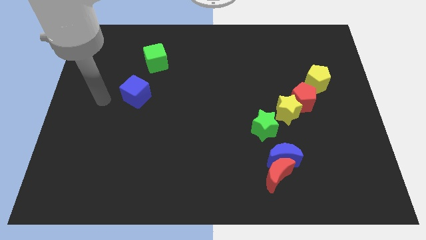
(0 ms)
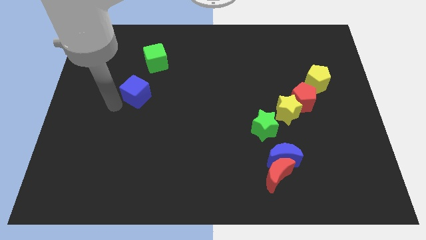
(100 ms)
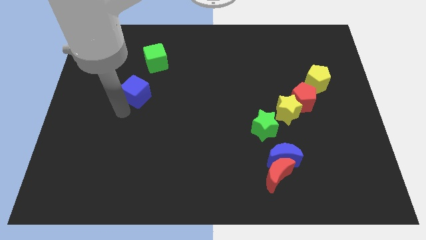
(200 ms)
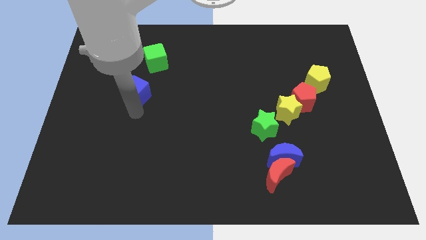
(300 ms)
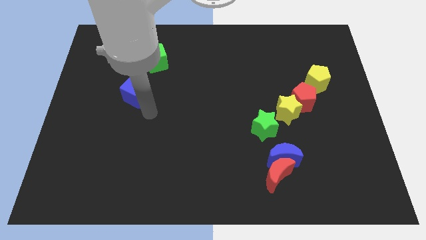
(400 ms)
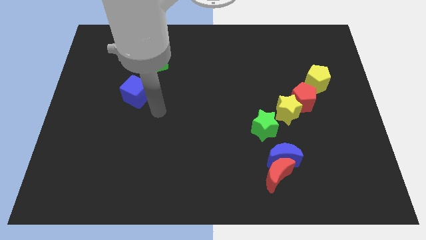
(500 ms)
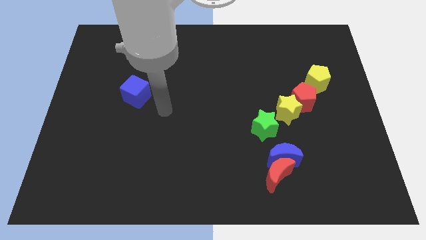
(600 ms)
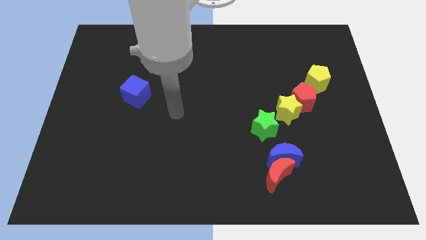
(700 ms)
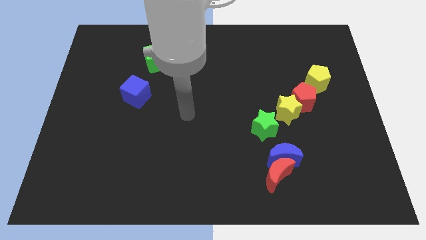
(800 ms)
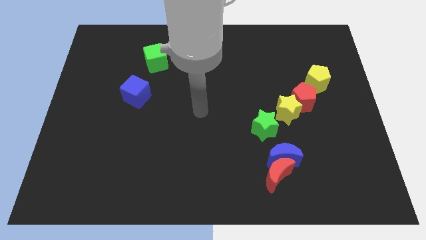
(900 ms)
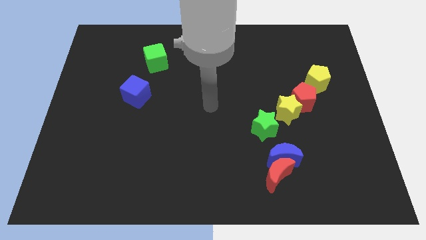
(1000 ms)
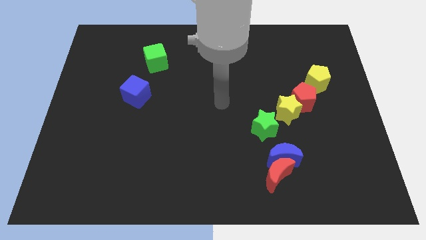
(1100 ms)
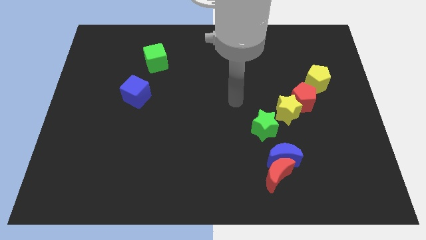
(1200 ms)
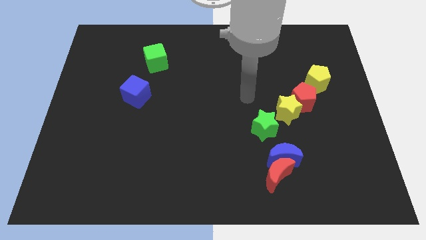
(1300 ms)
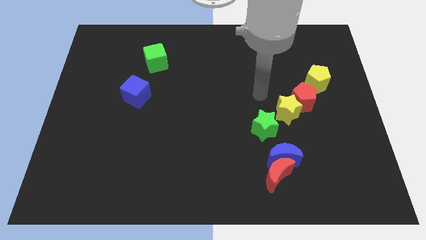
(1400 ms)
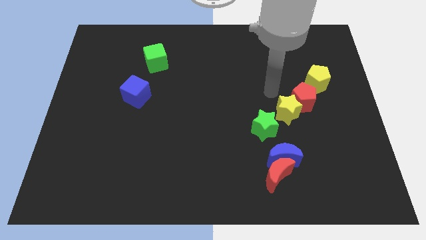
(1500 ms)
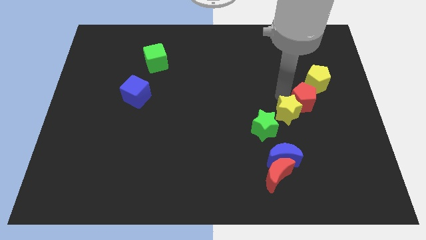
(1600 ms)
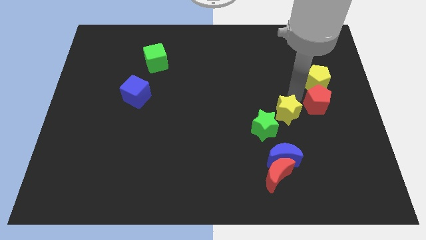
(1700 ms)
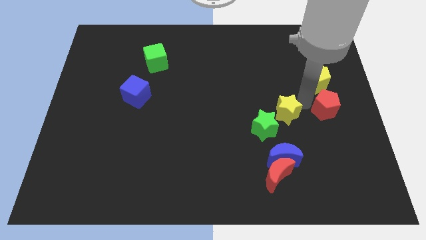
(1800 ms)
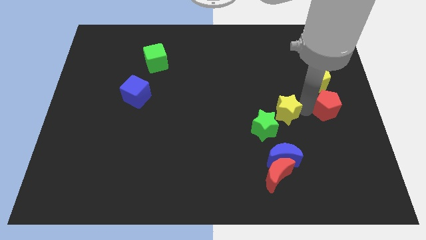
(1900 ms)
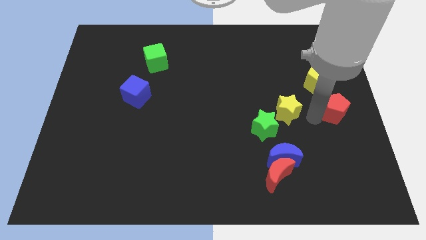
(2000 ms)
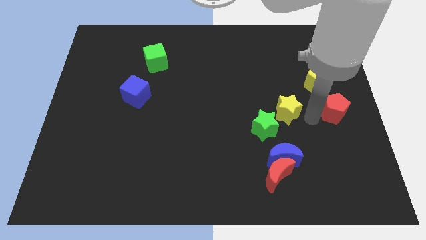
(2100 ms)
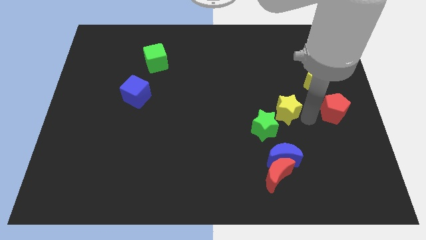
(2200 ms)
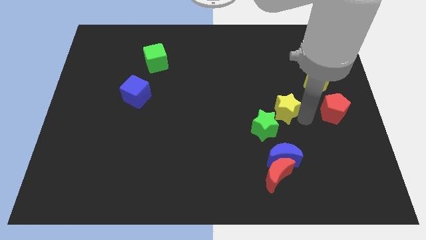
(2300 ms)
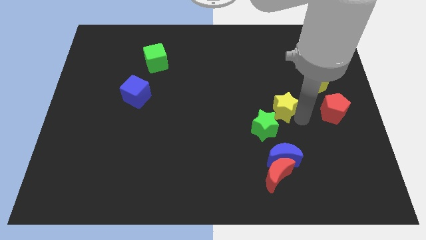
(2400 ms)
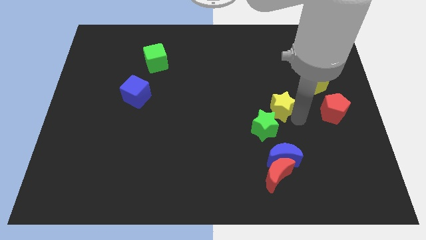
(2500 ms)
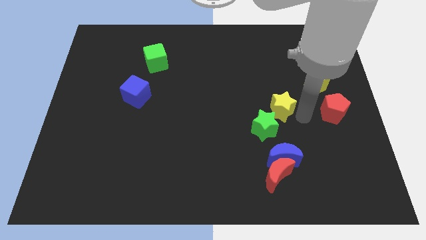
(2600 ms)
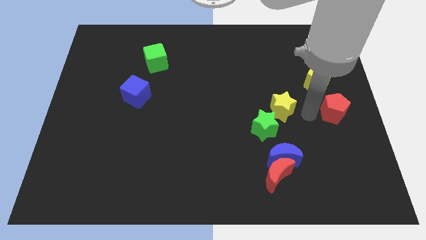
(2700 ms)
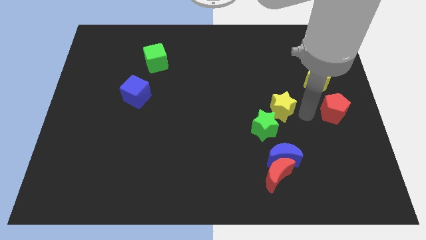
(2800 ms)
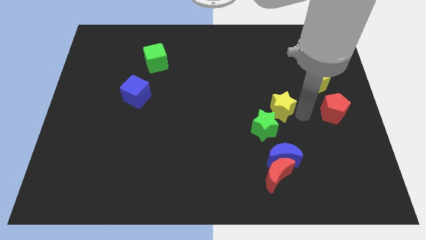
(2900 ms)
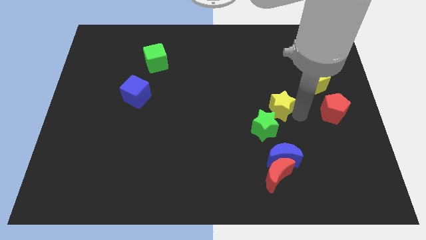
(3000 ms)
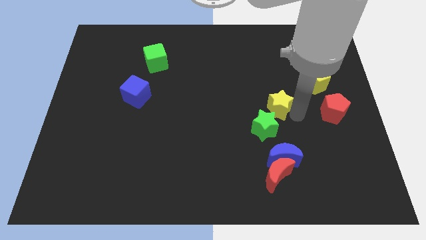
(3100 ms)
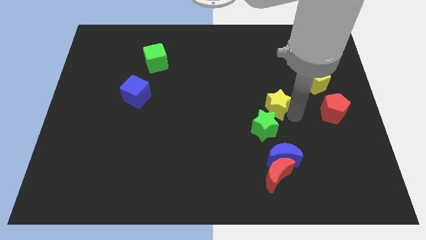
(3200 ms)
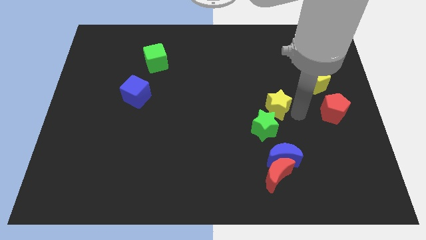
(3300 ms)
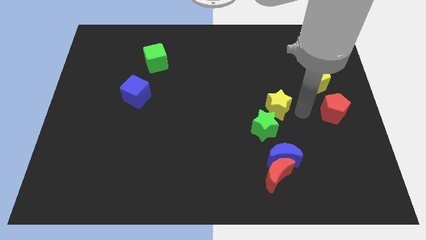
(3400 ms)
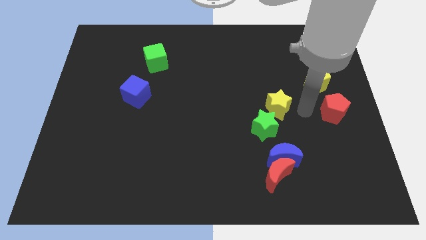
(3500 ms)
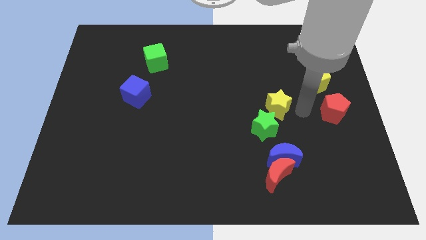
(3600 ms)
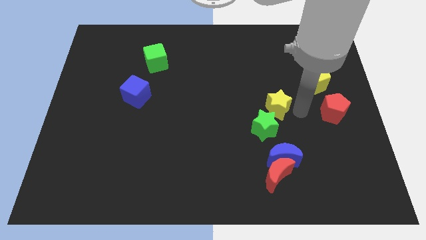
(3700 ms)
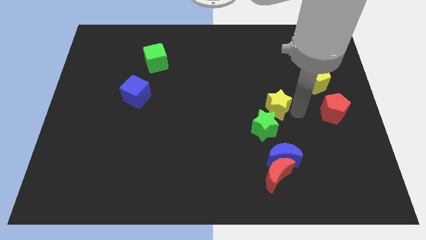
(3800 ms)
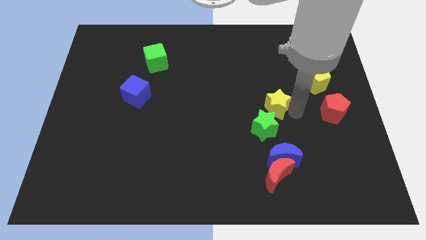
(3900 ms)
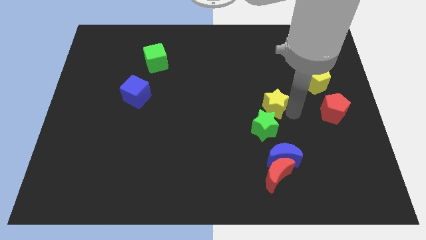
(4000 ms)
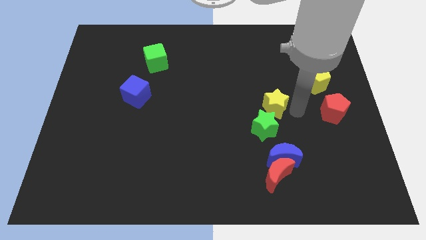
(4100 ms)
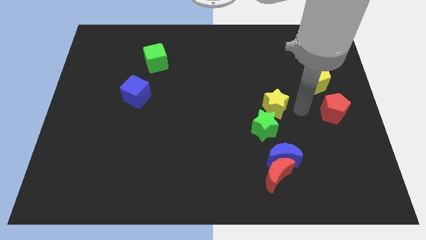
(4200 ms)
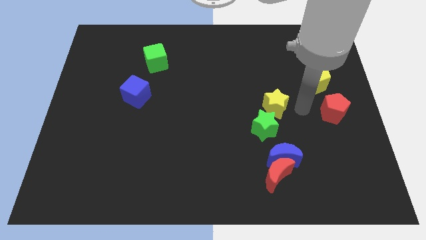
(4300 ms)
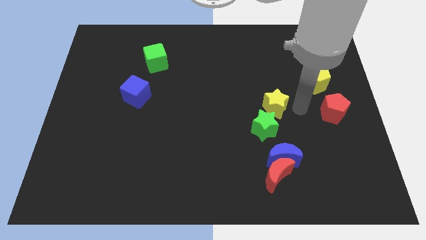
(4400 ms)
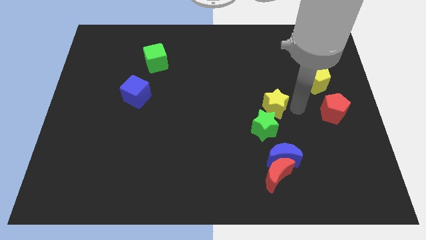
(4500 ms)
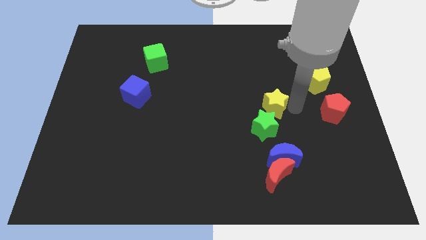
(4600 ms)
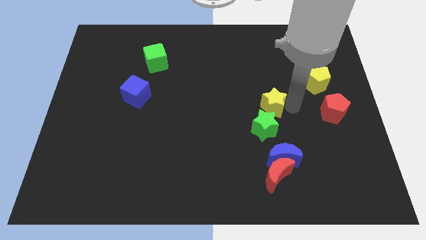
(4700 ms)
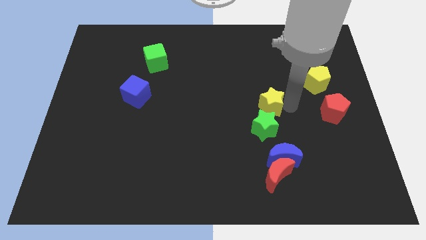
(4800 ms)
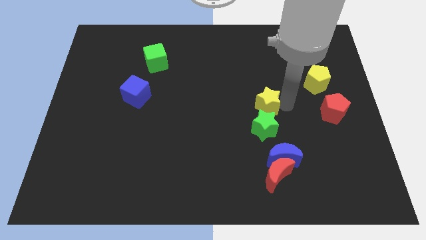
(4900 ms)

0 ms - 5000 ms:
put the yellow star to the middle of the board

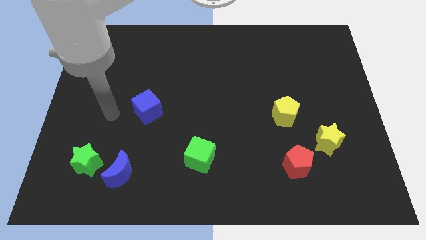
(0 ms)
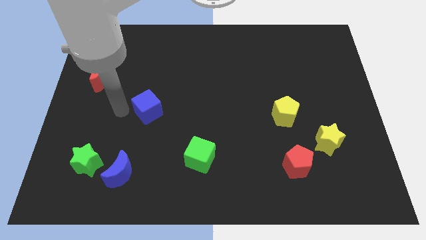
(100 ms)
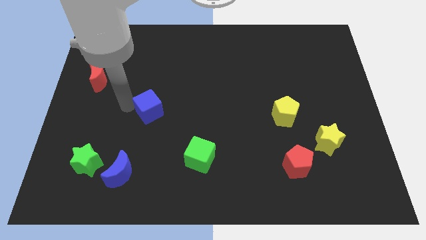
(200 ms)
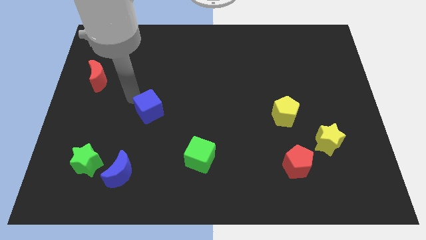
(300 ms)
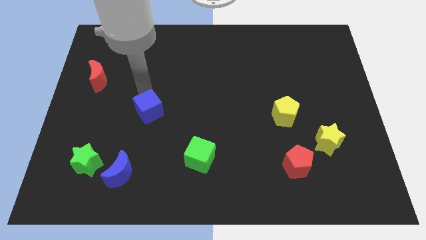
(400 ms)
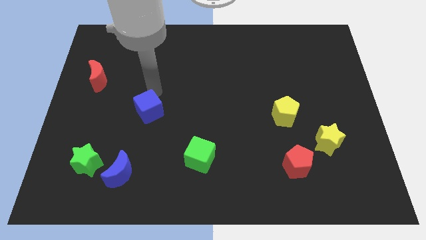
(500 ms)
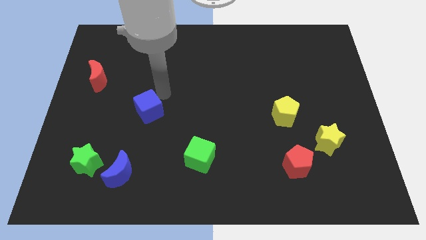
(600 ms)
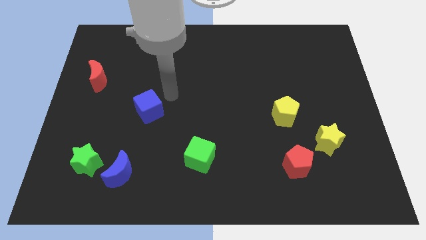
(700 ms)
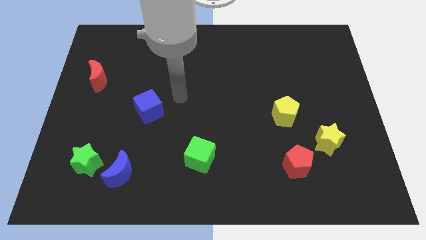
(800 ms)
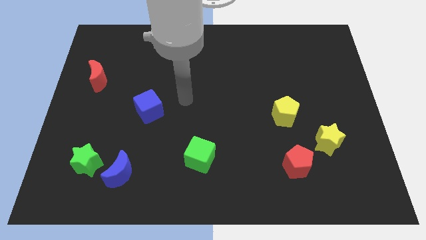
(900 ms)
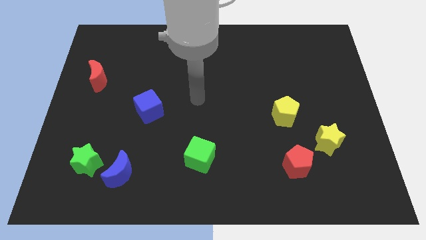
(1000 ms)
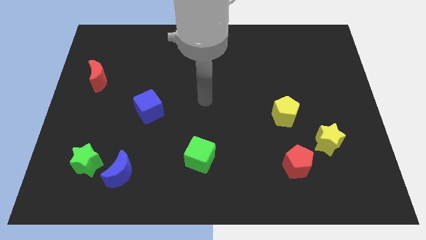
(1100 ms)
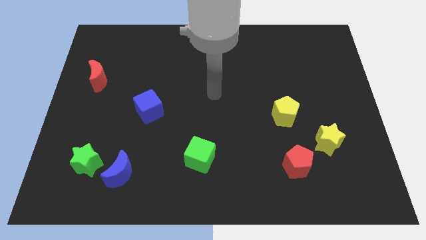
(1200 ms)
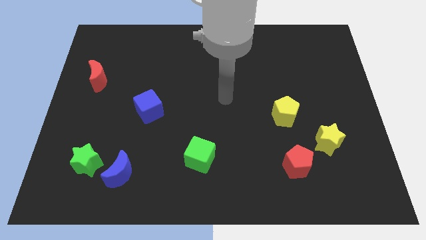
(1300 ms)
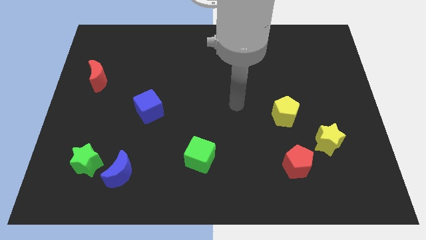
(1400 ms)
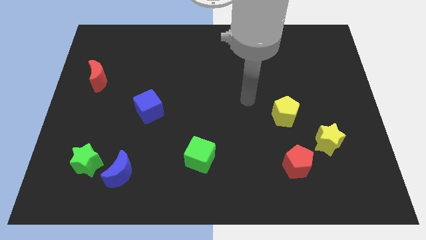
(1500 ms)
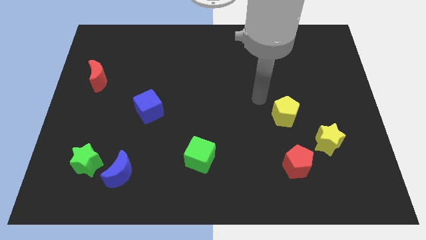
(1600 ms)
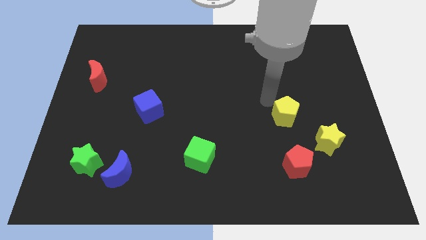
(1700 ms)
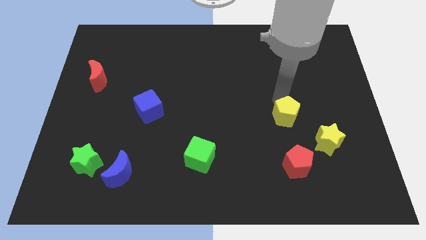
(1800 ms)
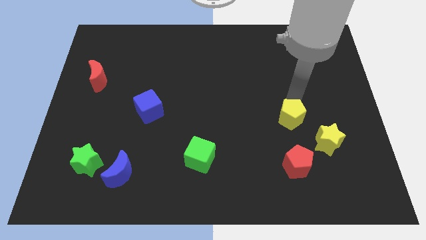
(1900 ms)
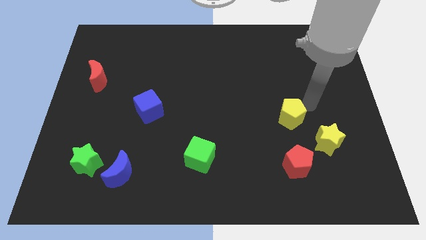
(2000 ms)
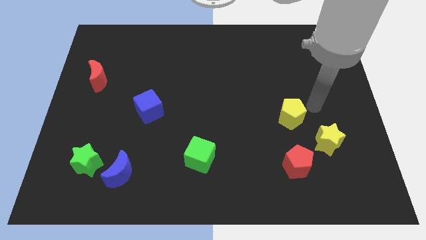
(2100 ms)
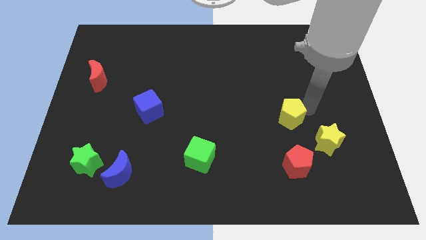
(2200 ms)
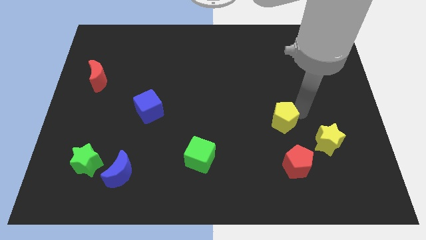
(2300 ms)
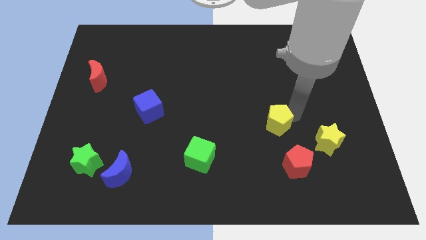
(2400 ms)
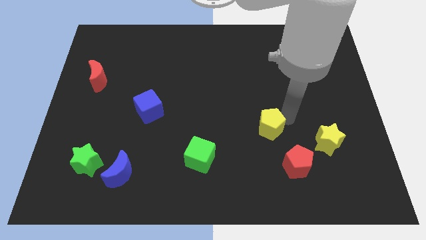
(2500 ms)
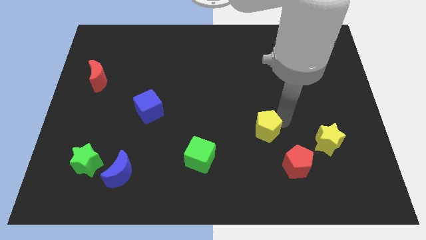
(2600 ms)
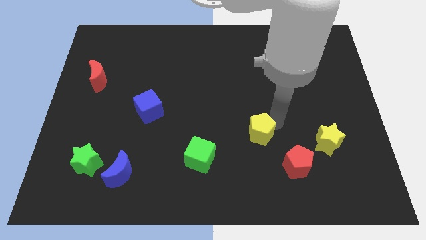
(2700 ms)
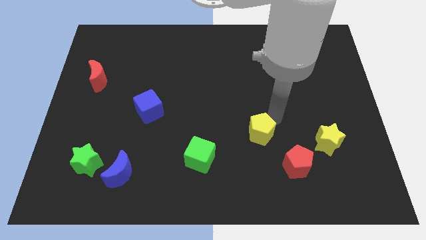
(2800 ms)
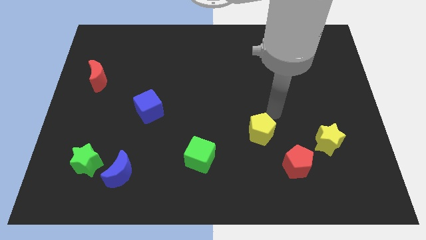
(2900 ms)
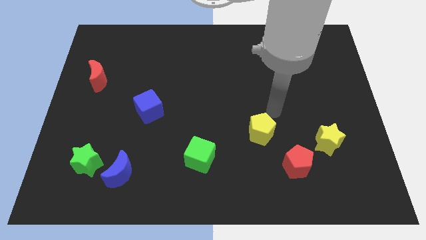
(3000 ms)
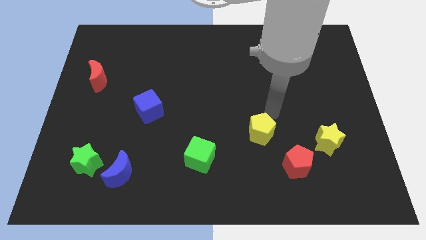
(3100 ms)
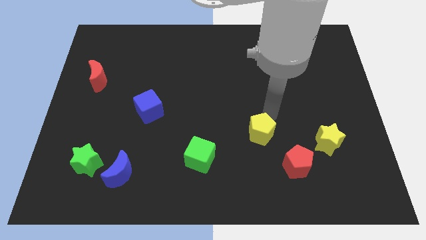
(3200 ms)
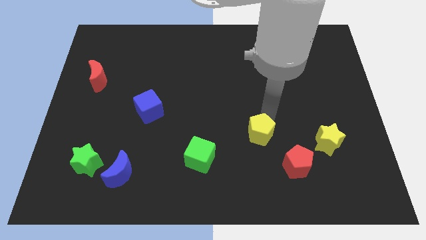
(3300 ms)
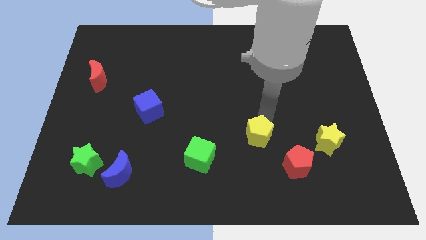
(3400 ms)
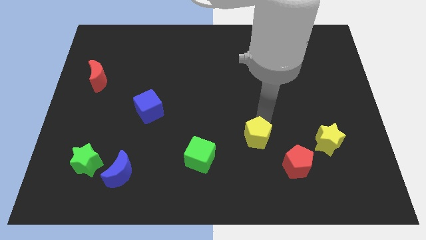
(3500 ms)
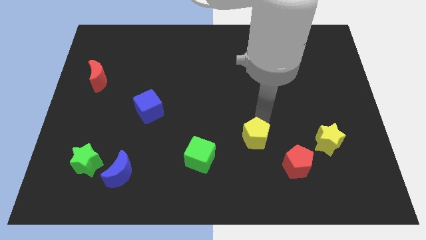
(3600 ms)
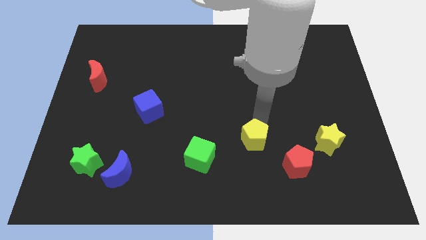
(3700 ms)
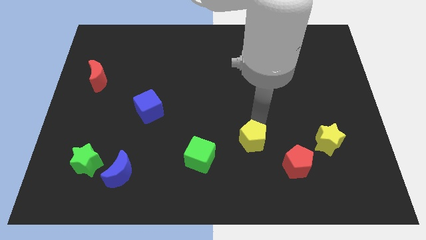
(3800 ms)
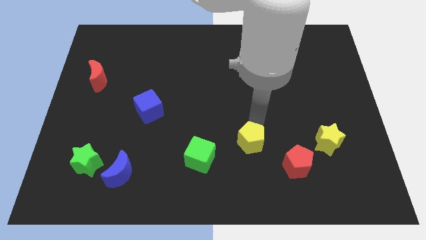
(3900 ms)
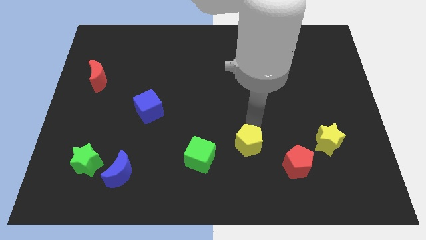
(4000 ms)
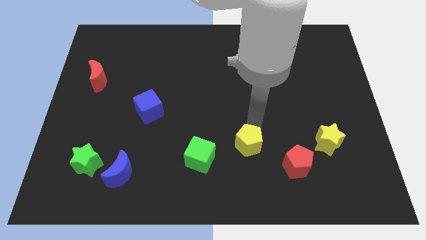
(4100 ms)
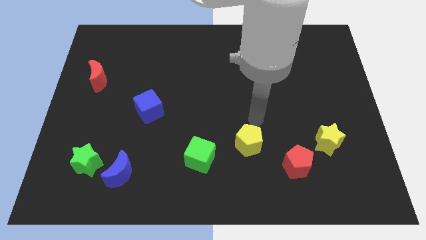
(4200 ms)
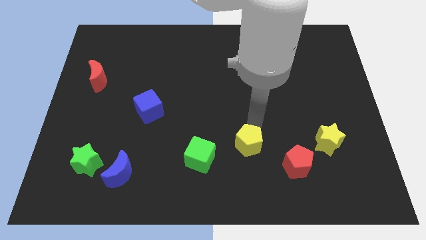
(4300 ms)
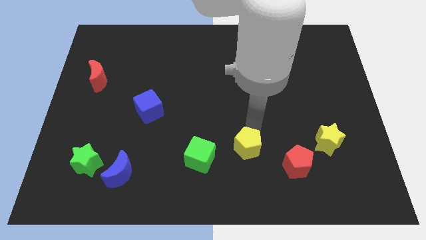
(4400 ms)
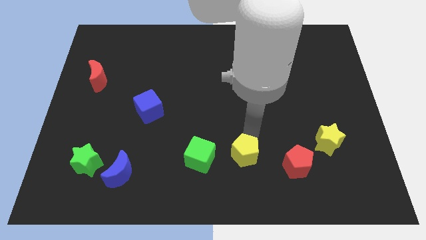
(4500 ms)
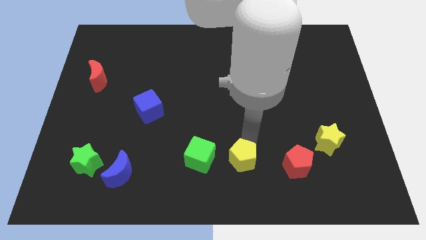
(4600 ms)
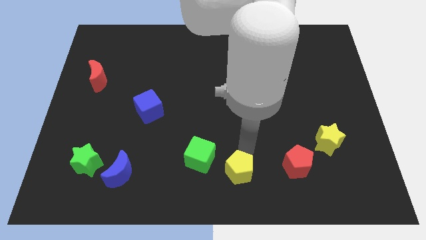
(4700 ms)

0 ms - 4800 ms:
put the yellow pentagon to the bottom side
